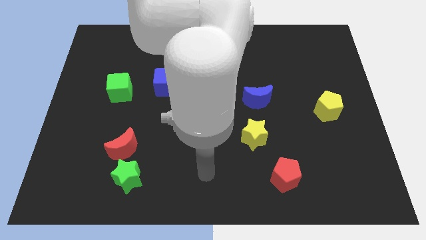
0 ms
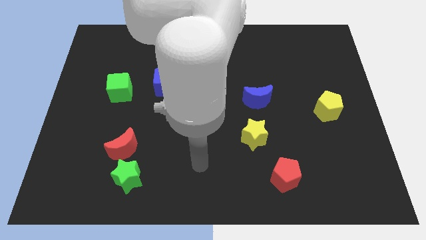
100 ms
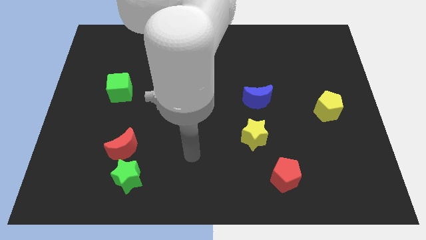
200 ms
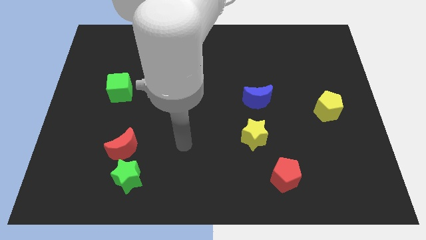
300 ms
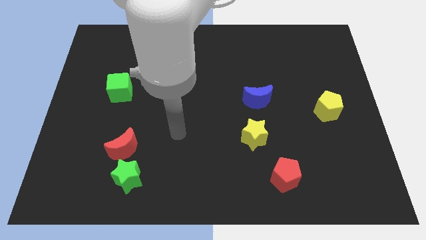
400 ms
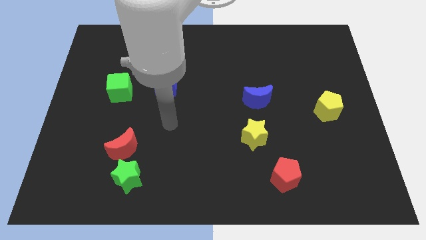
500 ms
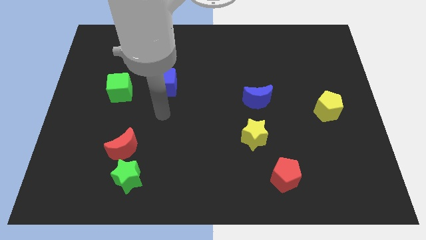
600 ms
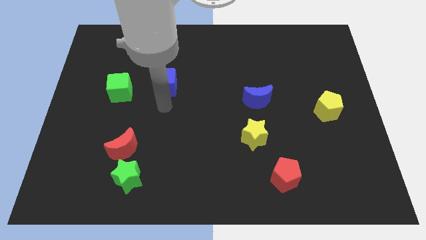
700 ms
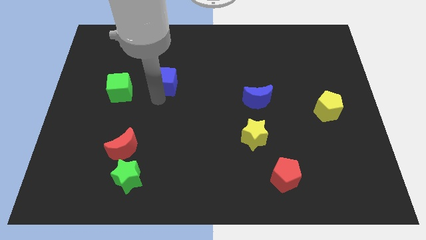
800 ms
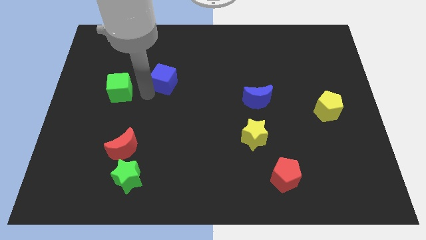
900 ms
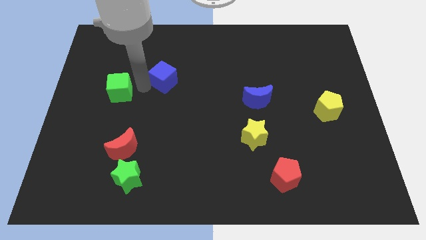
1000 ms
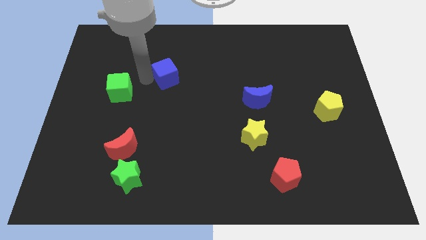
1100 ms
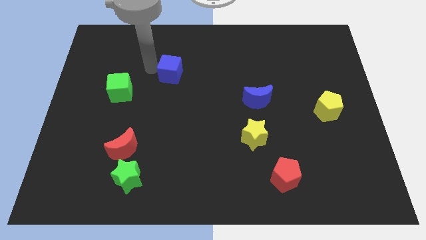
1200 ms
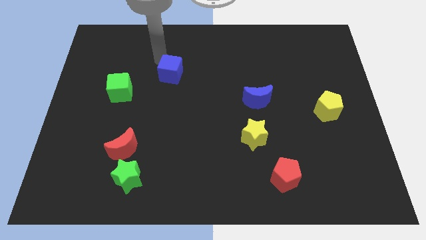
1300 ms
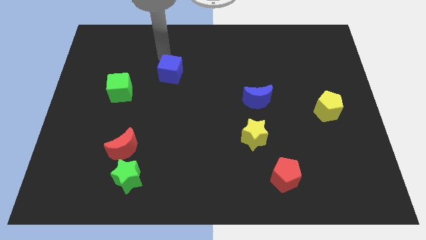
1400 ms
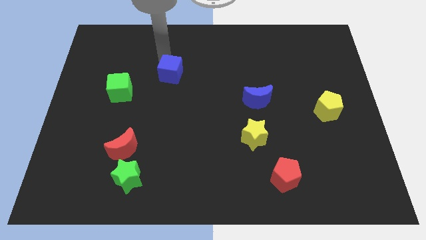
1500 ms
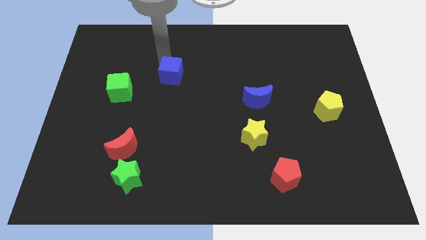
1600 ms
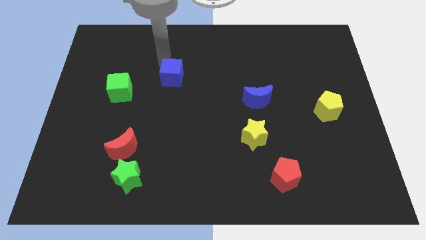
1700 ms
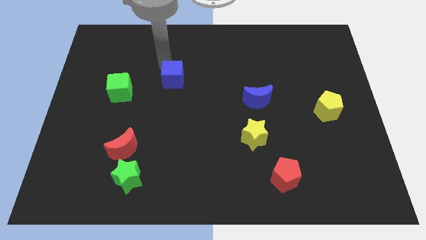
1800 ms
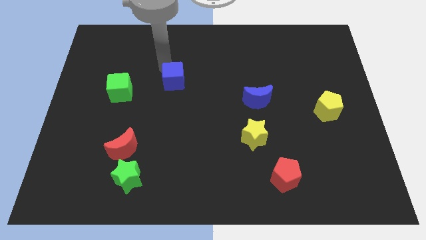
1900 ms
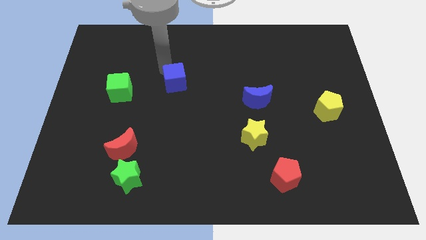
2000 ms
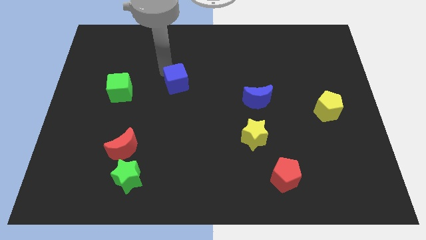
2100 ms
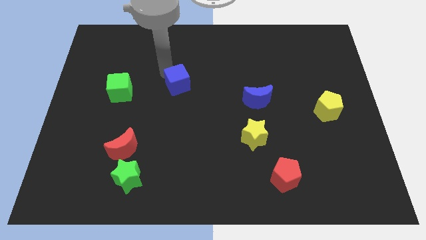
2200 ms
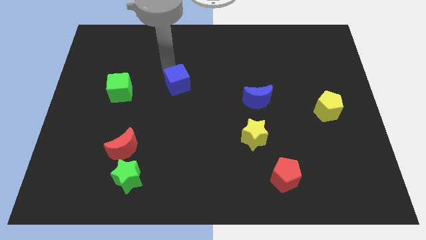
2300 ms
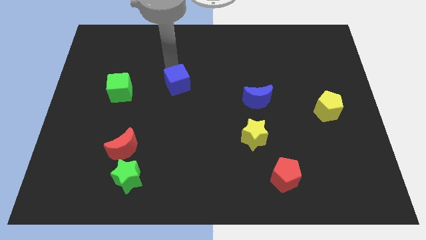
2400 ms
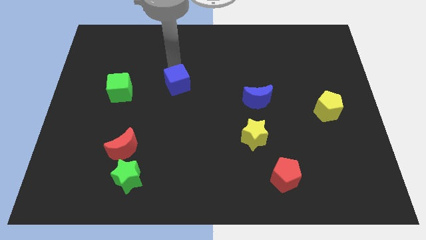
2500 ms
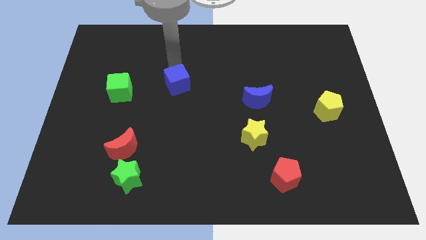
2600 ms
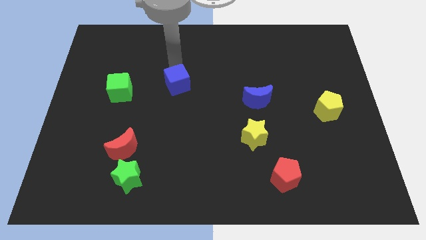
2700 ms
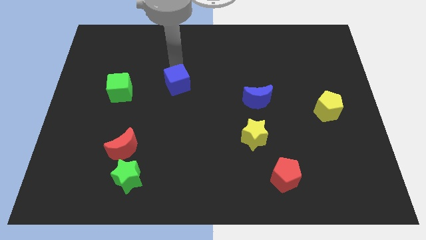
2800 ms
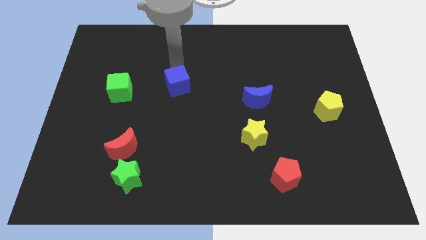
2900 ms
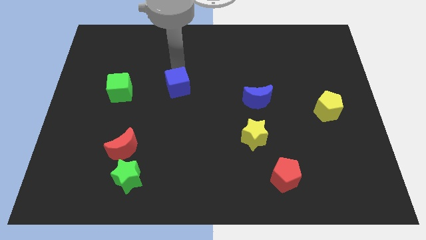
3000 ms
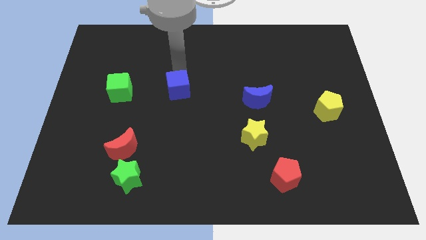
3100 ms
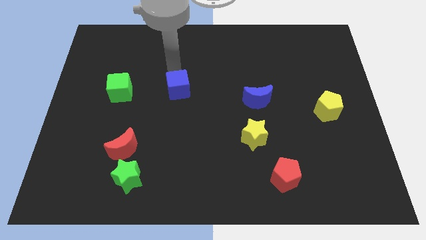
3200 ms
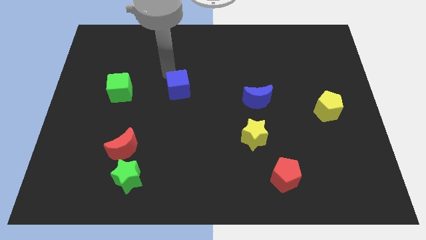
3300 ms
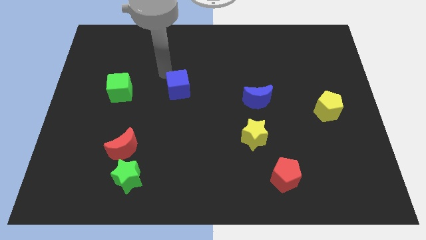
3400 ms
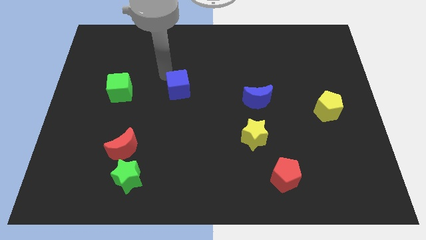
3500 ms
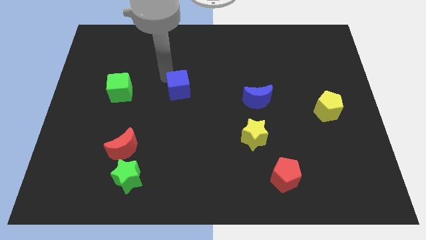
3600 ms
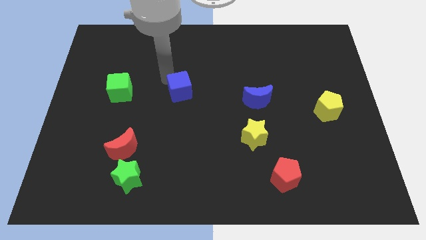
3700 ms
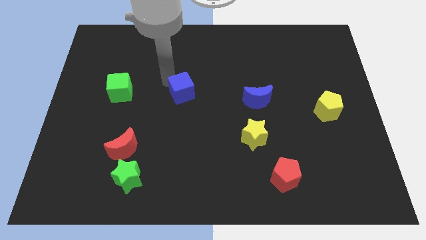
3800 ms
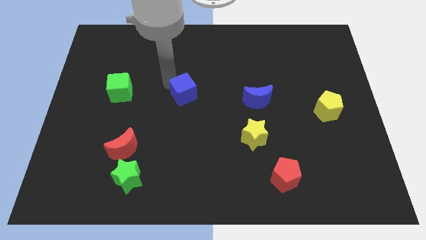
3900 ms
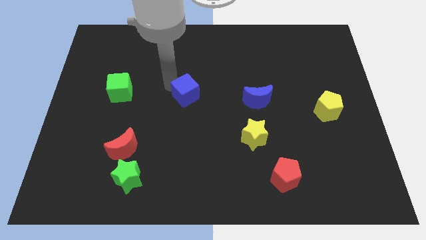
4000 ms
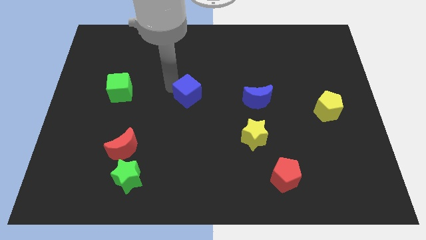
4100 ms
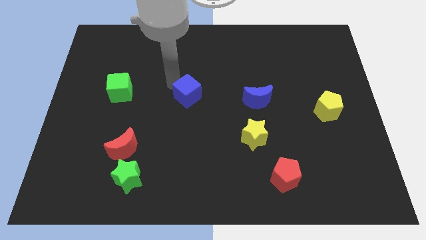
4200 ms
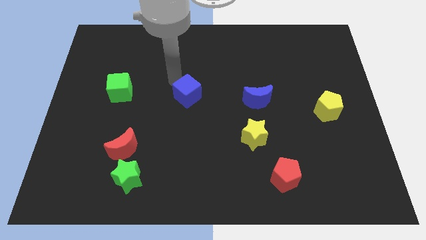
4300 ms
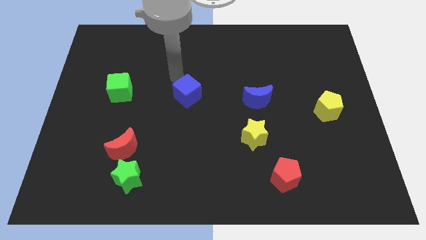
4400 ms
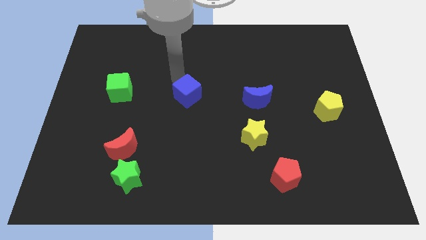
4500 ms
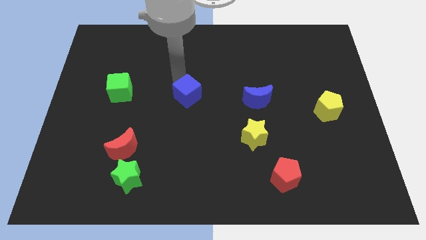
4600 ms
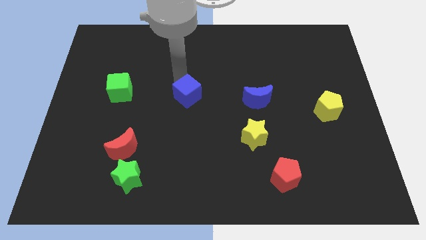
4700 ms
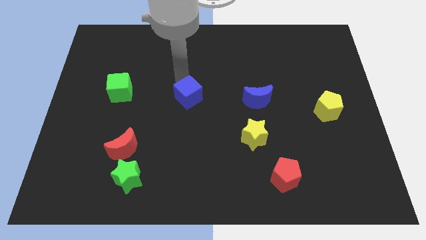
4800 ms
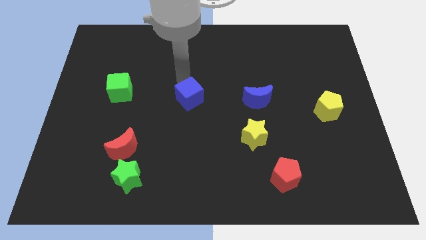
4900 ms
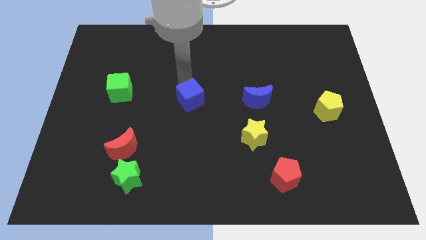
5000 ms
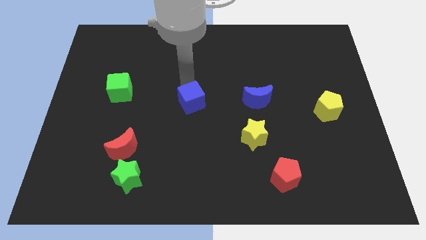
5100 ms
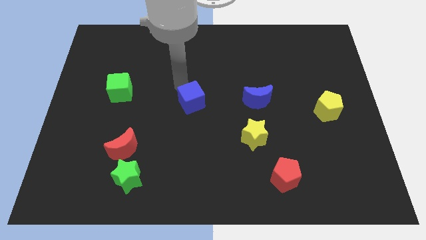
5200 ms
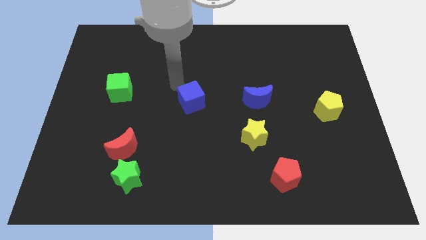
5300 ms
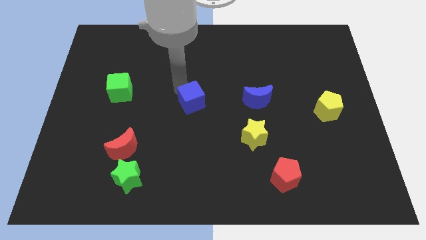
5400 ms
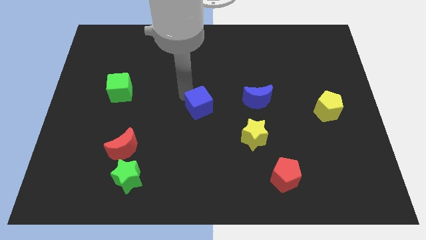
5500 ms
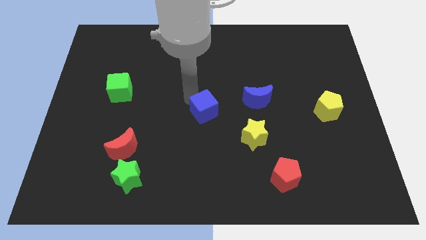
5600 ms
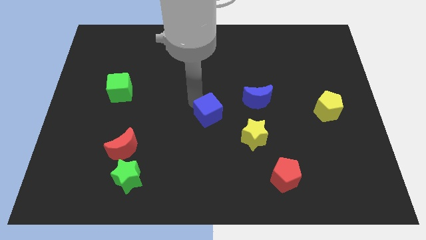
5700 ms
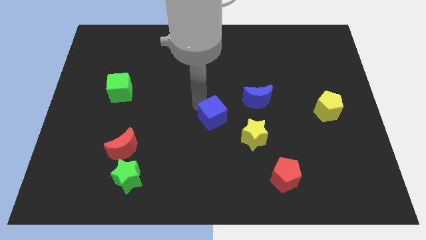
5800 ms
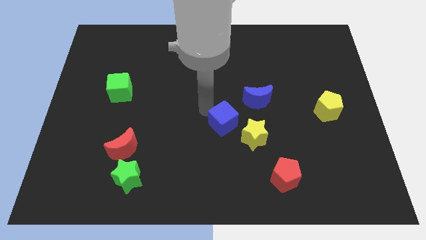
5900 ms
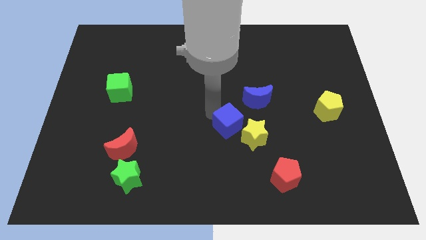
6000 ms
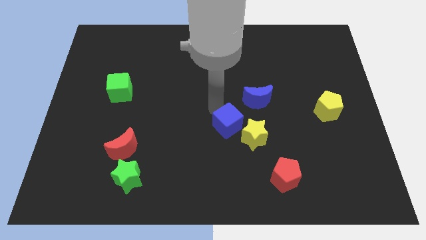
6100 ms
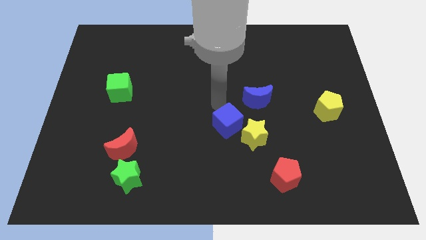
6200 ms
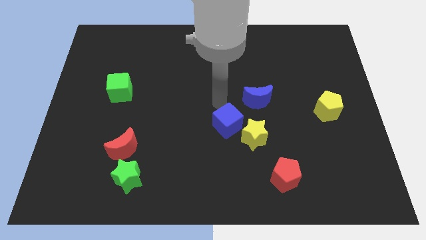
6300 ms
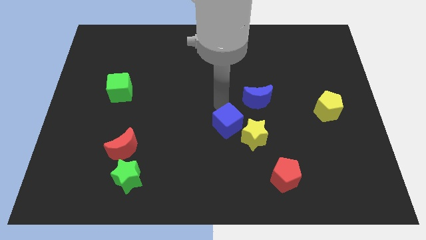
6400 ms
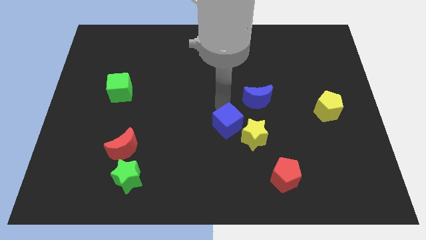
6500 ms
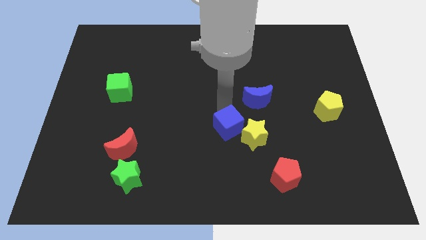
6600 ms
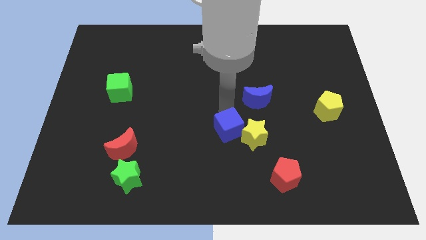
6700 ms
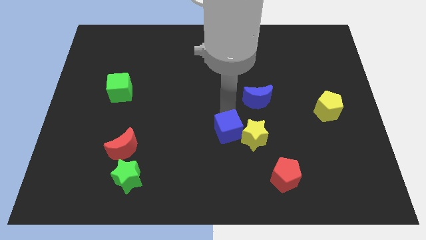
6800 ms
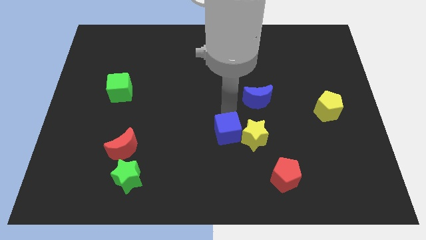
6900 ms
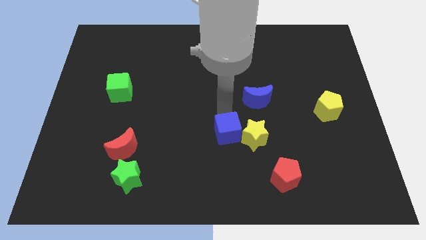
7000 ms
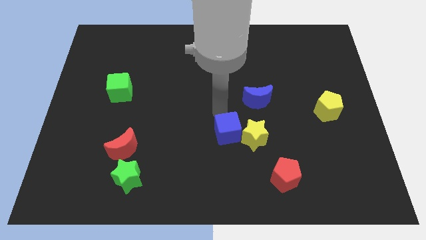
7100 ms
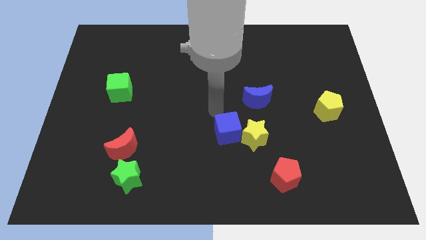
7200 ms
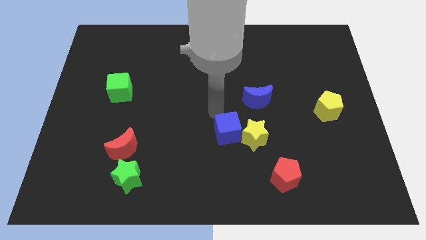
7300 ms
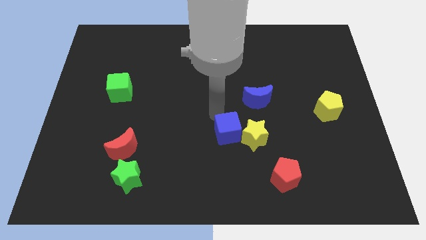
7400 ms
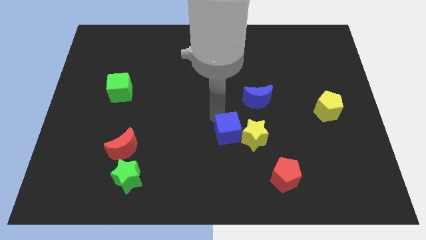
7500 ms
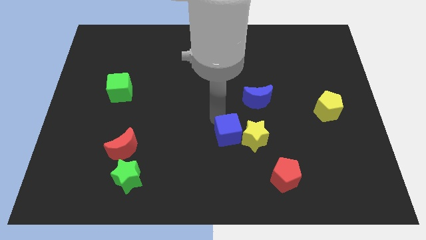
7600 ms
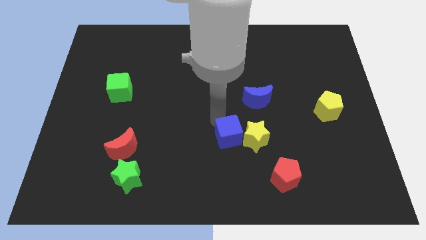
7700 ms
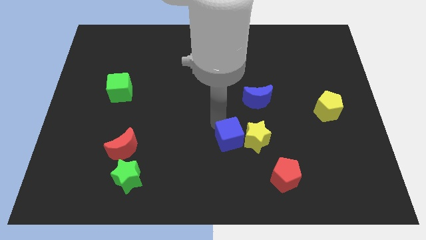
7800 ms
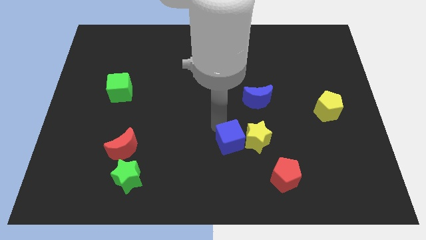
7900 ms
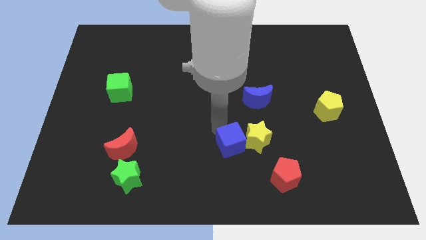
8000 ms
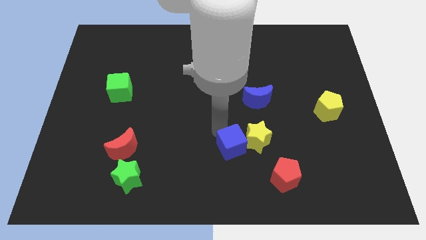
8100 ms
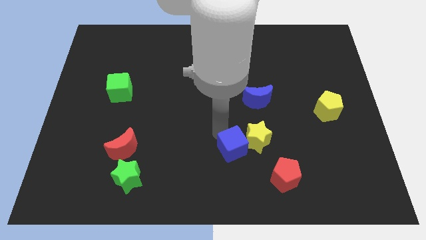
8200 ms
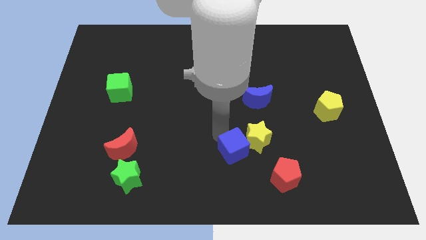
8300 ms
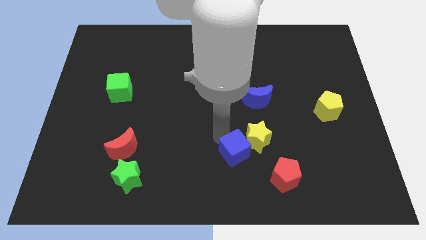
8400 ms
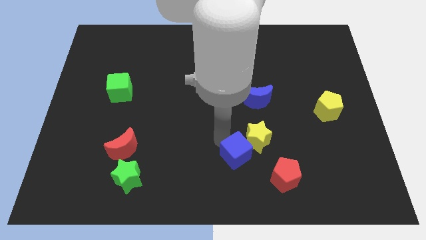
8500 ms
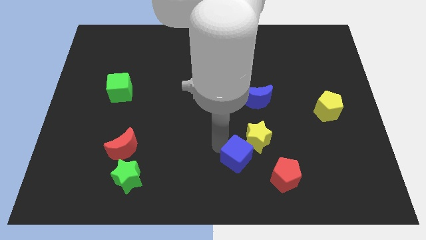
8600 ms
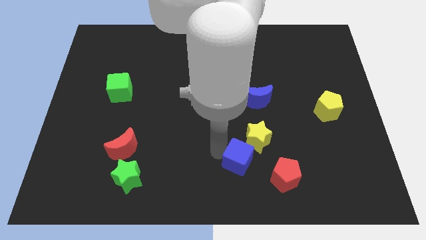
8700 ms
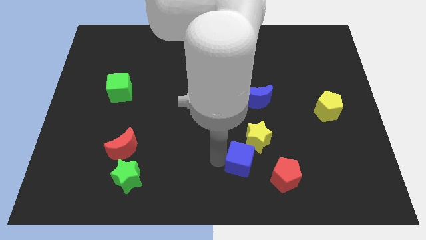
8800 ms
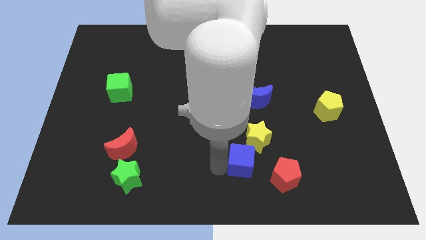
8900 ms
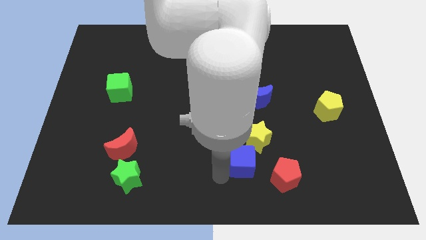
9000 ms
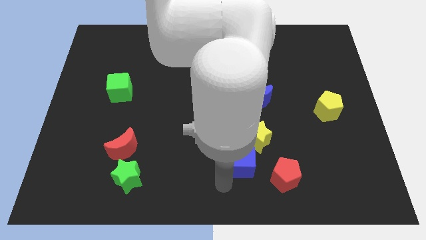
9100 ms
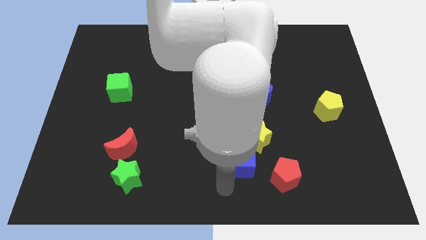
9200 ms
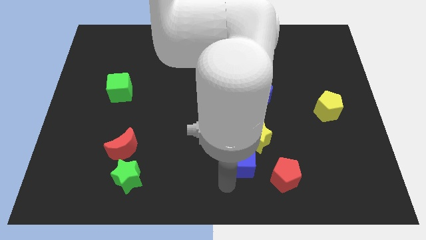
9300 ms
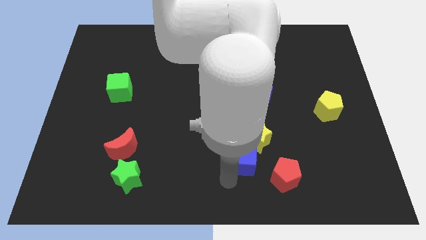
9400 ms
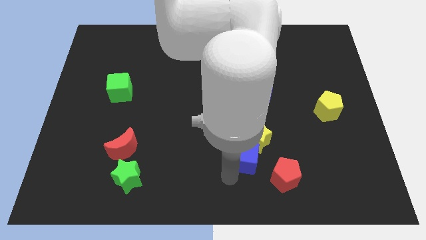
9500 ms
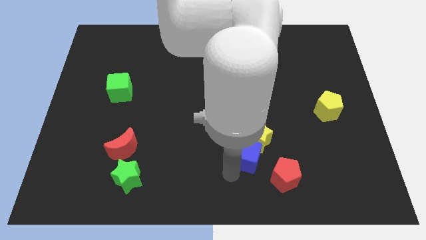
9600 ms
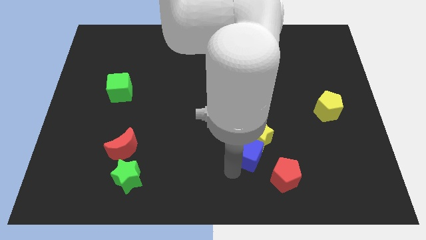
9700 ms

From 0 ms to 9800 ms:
slide the blue cube below the blue moon
